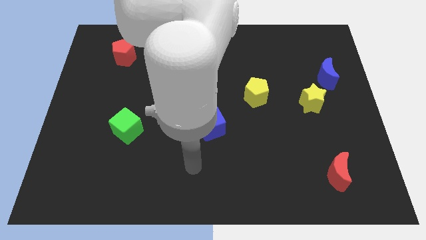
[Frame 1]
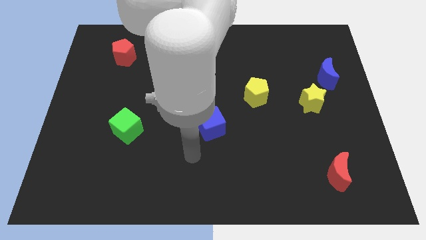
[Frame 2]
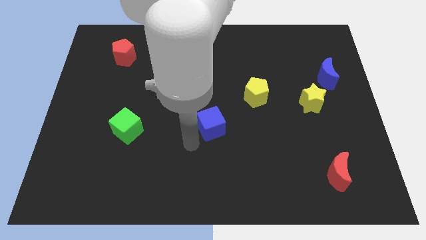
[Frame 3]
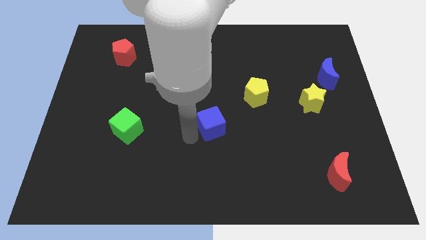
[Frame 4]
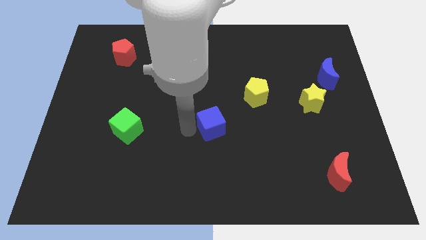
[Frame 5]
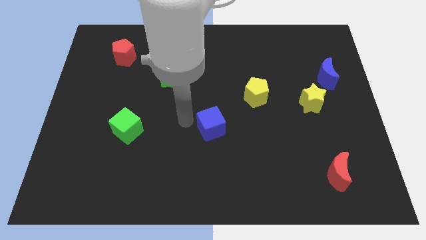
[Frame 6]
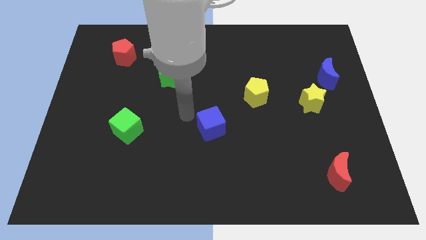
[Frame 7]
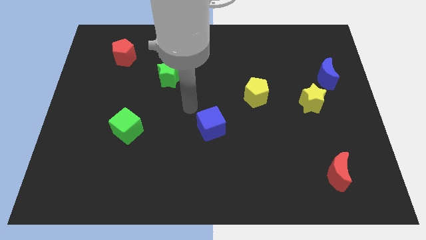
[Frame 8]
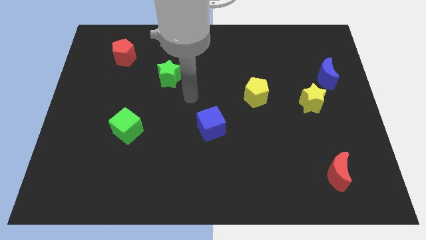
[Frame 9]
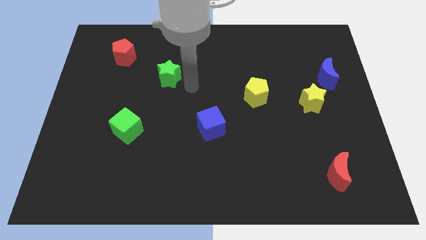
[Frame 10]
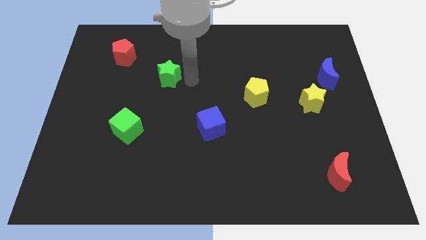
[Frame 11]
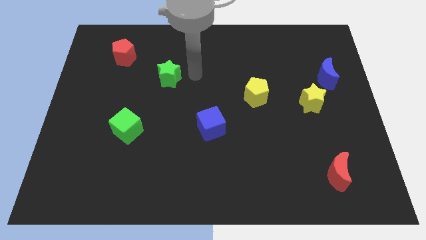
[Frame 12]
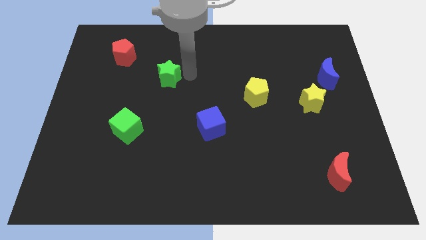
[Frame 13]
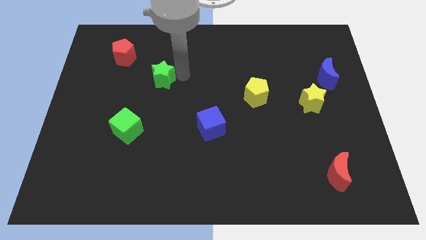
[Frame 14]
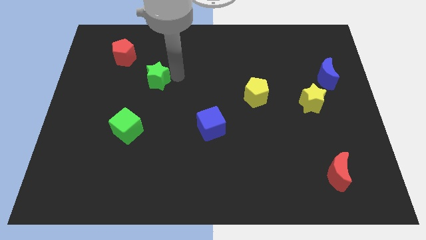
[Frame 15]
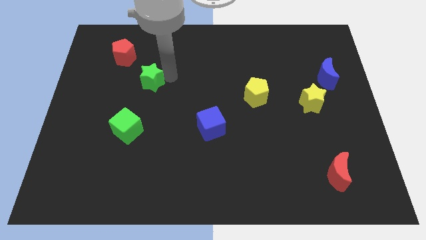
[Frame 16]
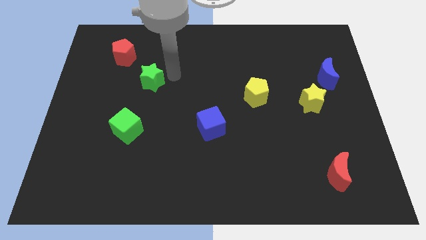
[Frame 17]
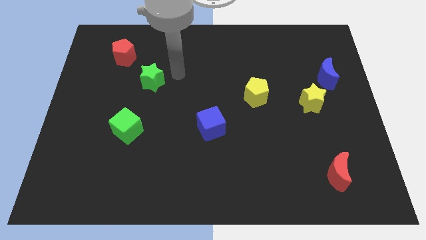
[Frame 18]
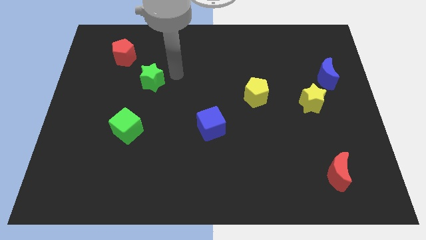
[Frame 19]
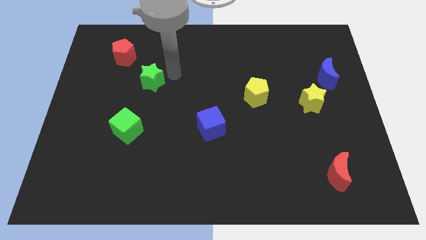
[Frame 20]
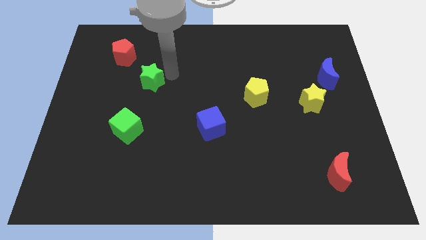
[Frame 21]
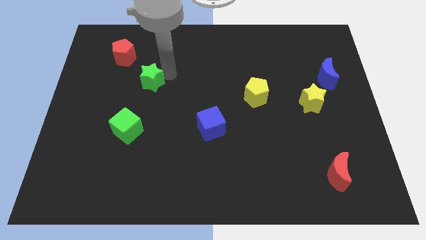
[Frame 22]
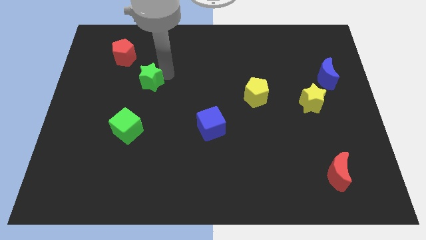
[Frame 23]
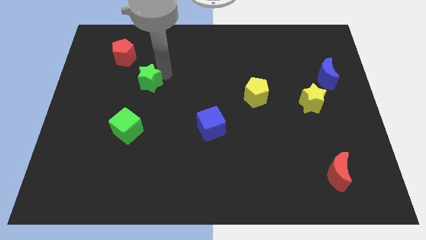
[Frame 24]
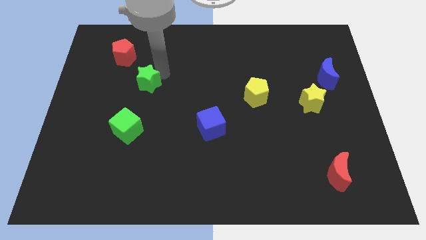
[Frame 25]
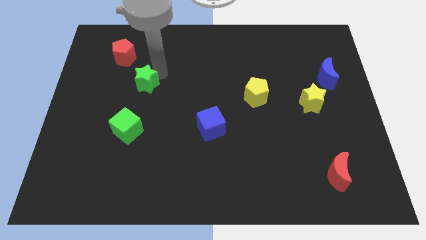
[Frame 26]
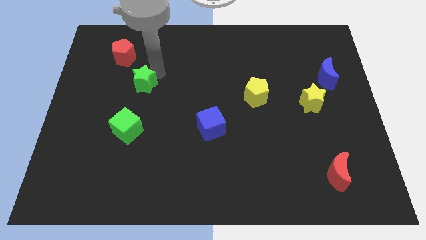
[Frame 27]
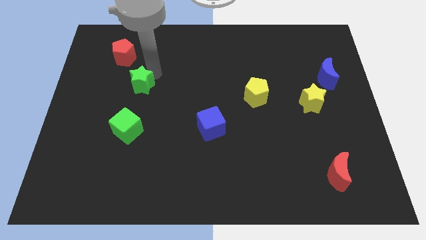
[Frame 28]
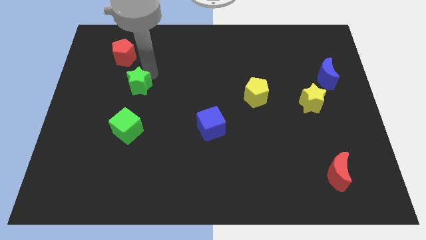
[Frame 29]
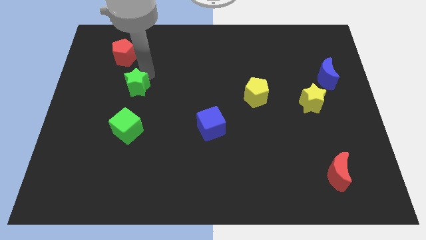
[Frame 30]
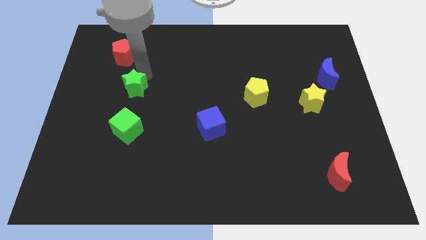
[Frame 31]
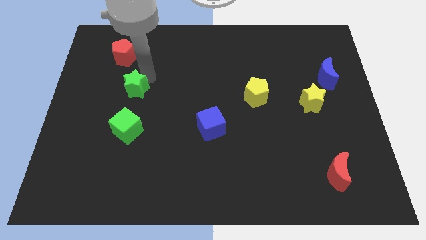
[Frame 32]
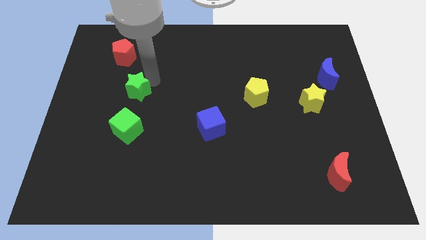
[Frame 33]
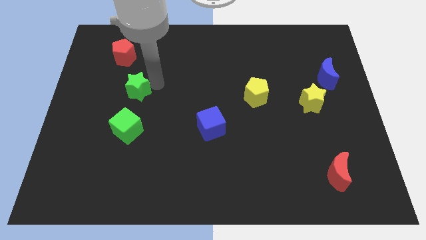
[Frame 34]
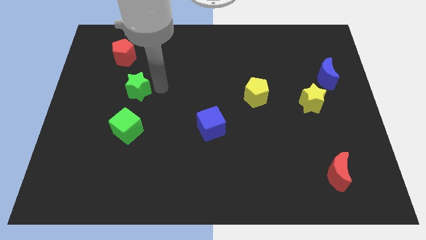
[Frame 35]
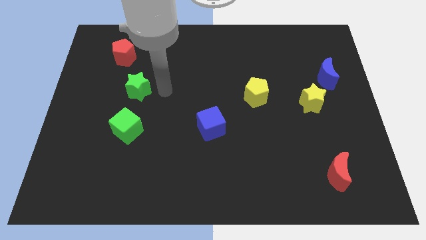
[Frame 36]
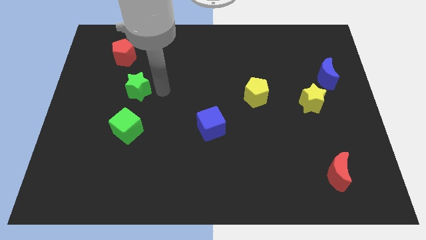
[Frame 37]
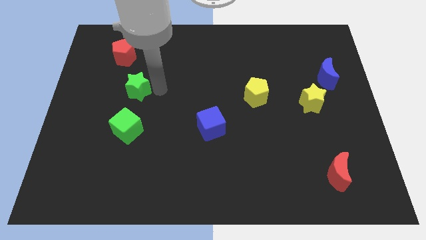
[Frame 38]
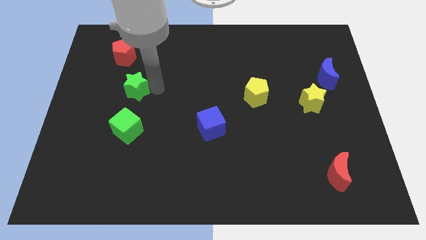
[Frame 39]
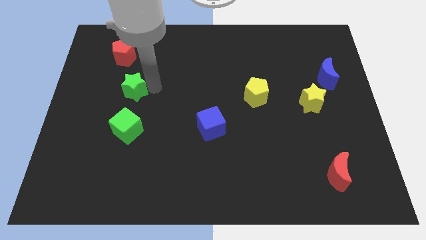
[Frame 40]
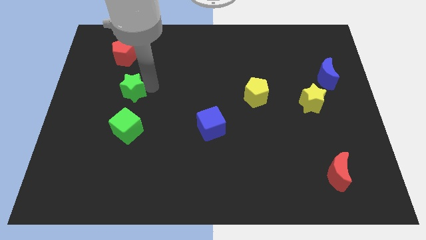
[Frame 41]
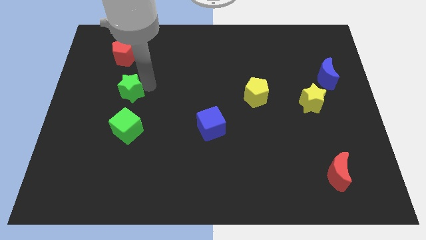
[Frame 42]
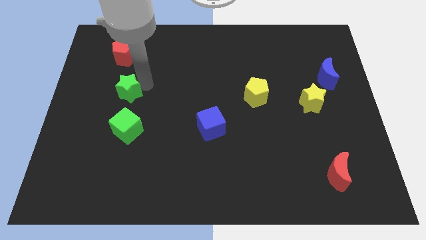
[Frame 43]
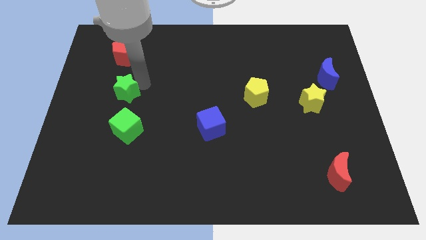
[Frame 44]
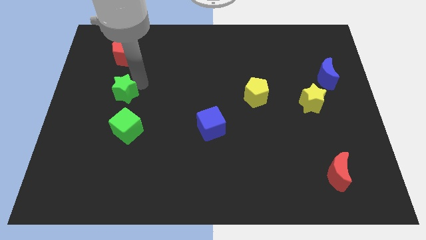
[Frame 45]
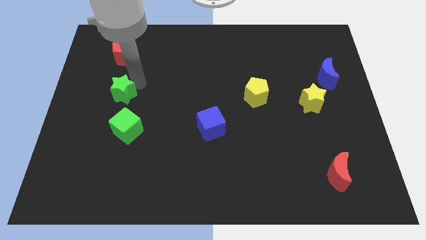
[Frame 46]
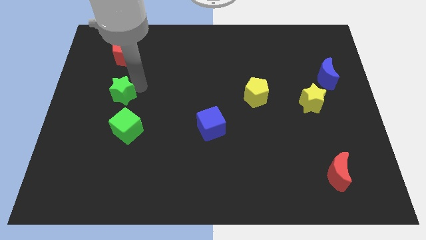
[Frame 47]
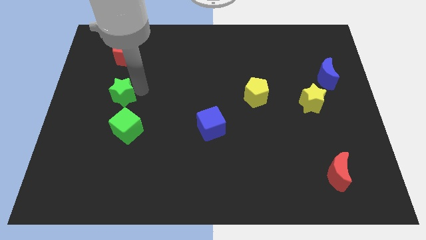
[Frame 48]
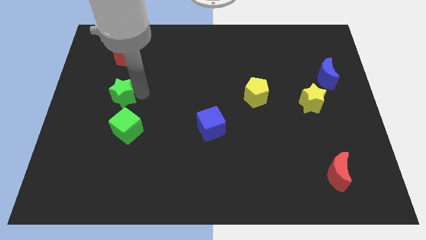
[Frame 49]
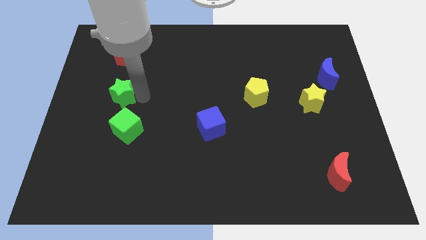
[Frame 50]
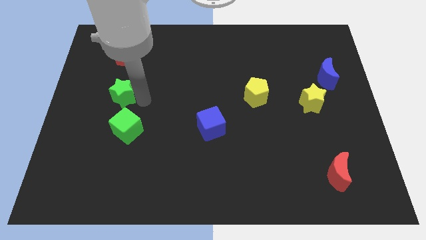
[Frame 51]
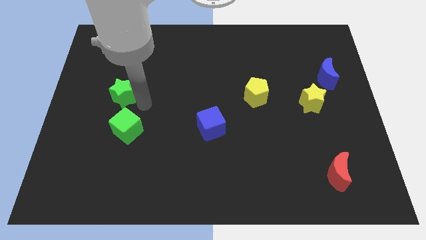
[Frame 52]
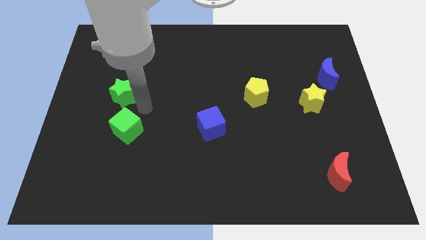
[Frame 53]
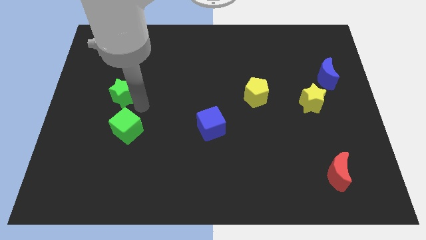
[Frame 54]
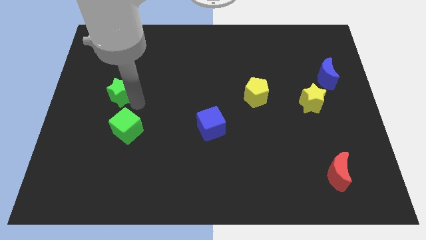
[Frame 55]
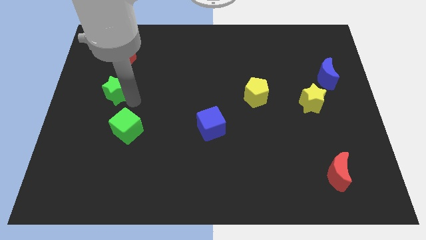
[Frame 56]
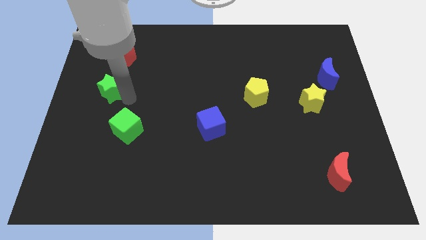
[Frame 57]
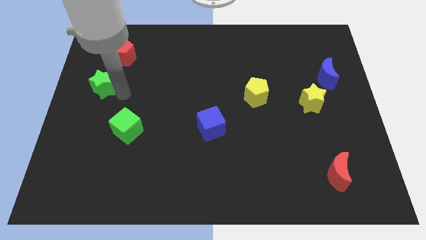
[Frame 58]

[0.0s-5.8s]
push the green star to the center left
